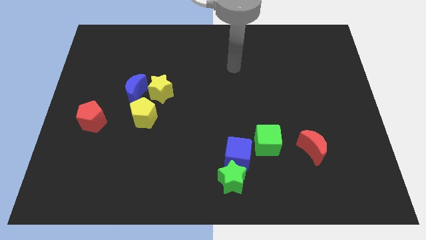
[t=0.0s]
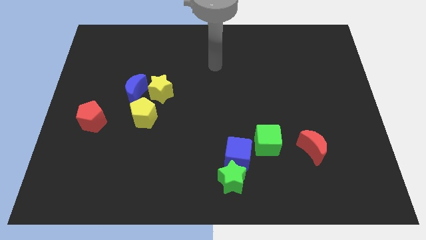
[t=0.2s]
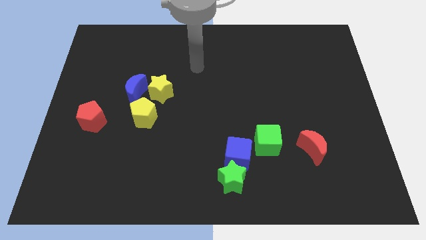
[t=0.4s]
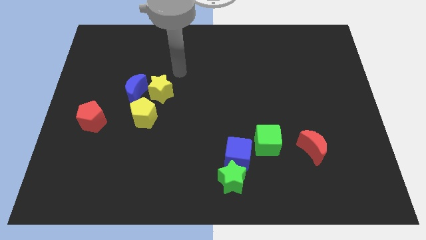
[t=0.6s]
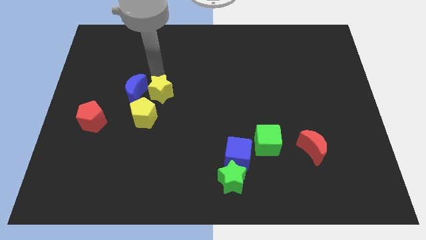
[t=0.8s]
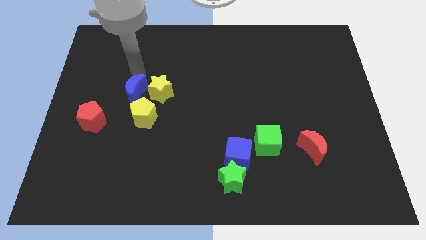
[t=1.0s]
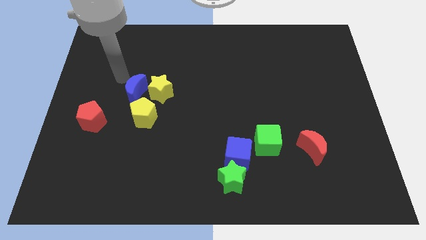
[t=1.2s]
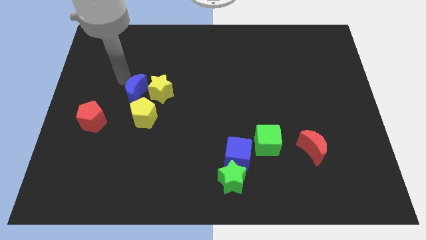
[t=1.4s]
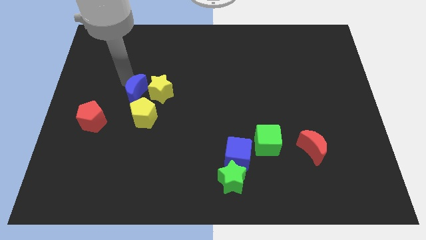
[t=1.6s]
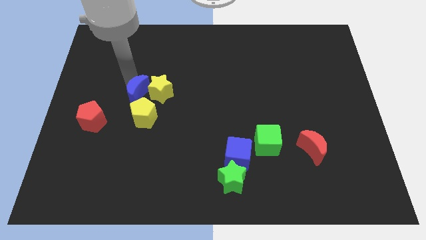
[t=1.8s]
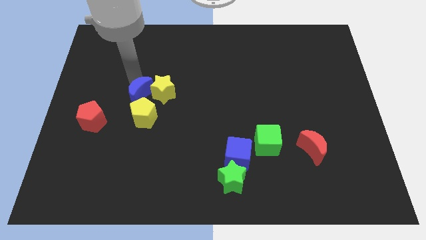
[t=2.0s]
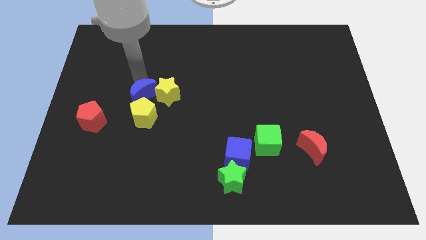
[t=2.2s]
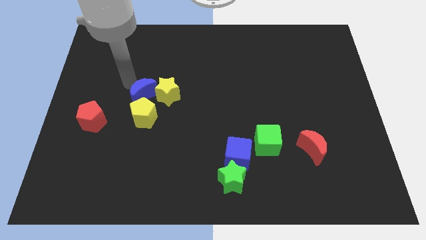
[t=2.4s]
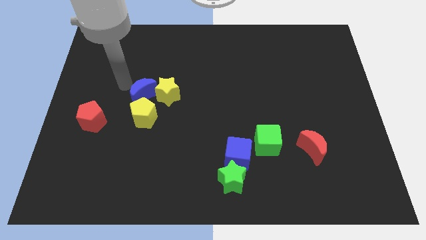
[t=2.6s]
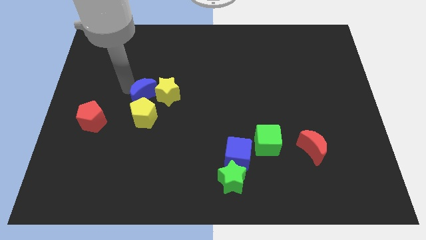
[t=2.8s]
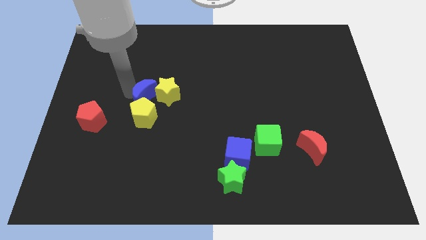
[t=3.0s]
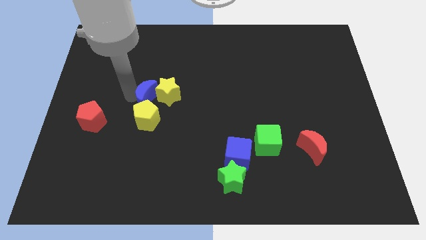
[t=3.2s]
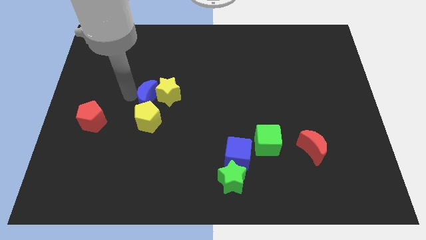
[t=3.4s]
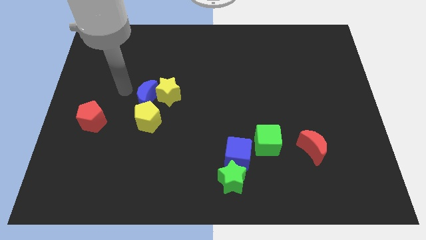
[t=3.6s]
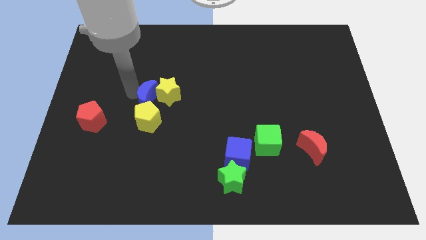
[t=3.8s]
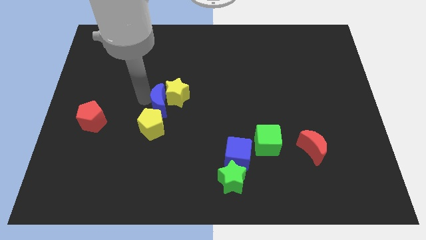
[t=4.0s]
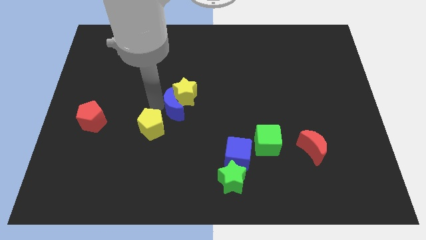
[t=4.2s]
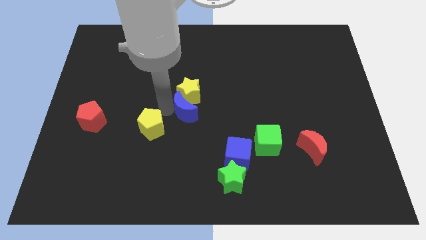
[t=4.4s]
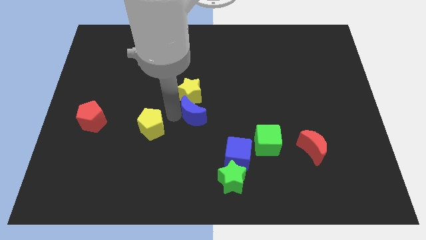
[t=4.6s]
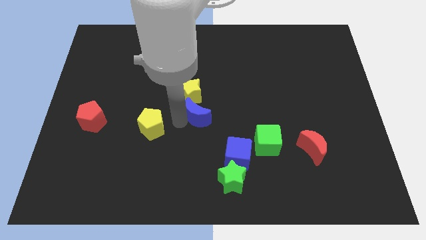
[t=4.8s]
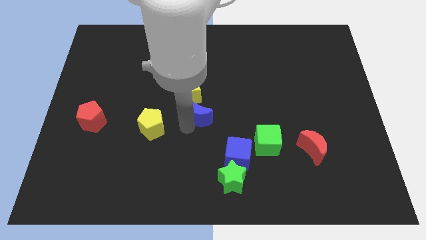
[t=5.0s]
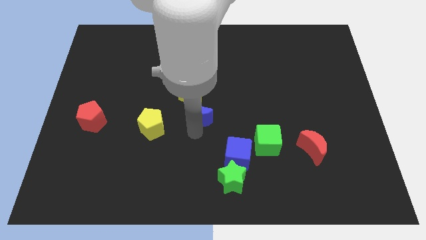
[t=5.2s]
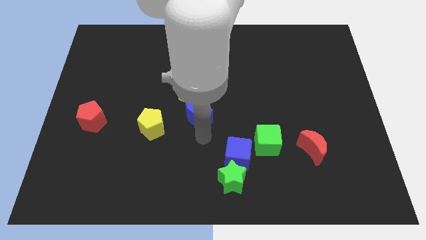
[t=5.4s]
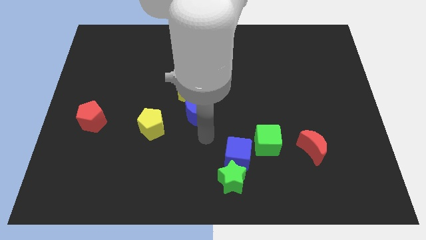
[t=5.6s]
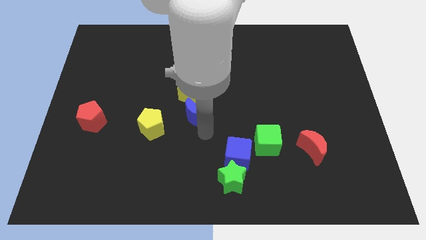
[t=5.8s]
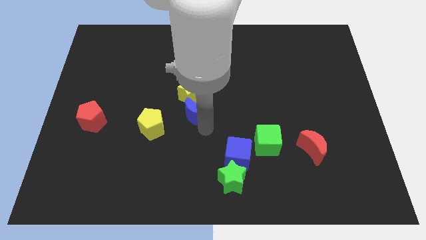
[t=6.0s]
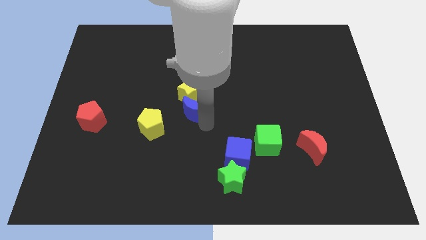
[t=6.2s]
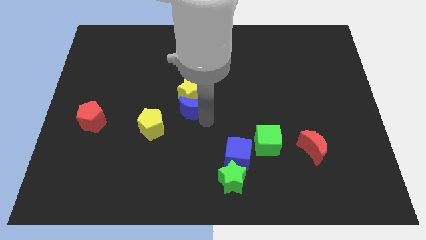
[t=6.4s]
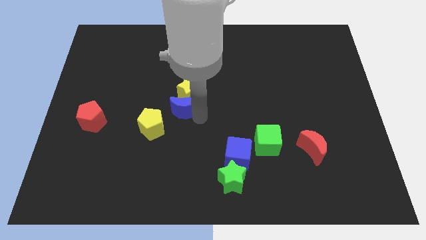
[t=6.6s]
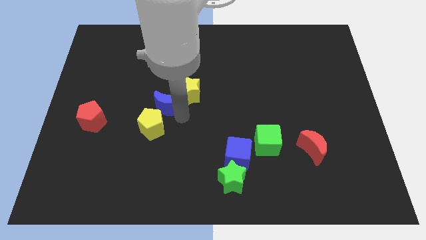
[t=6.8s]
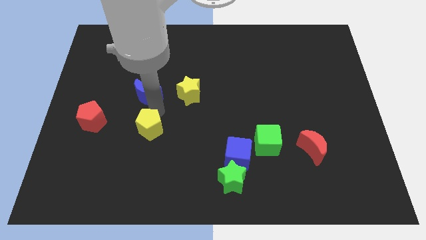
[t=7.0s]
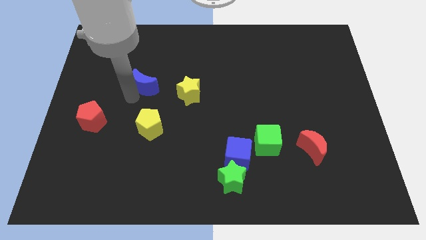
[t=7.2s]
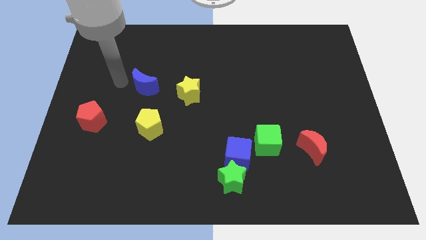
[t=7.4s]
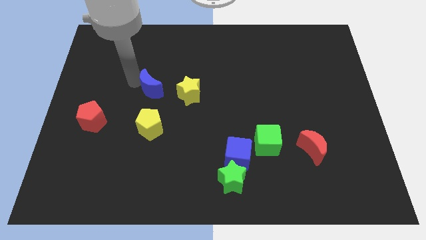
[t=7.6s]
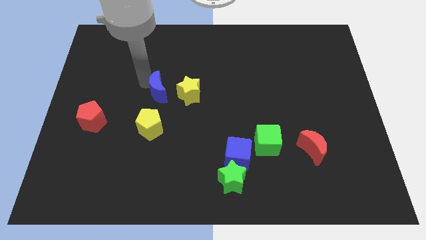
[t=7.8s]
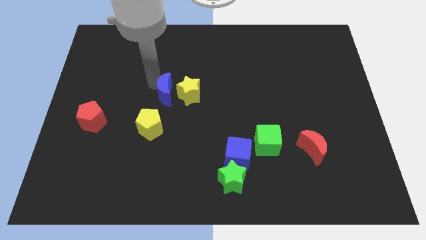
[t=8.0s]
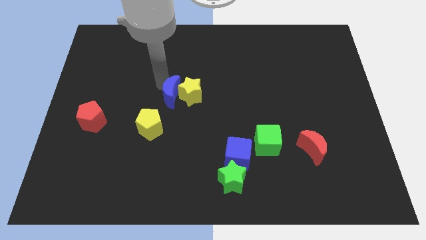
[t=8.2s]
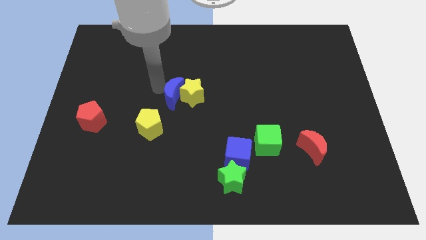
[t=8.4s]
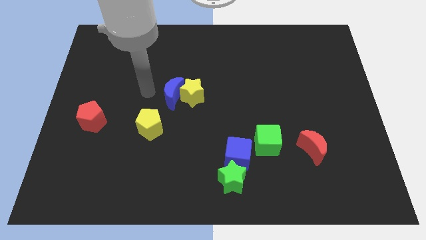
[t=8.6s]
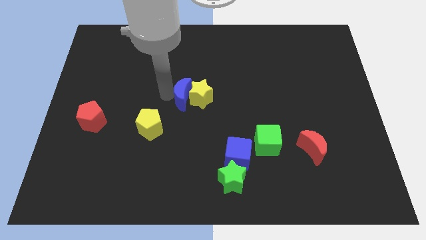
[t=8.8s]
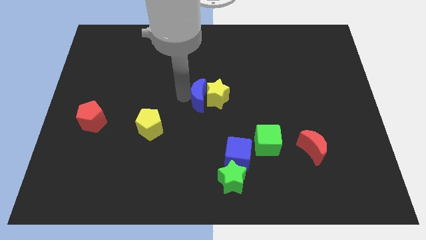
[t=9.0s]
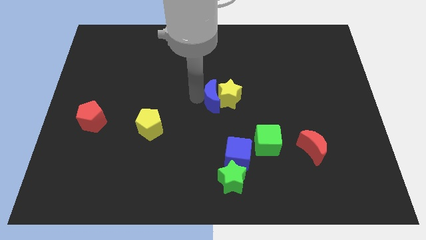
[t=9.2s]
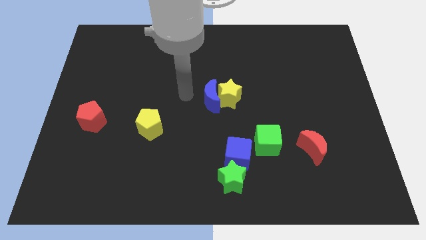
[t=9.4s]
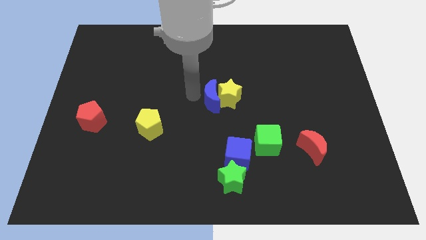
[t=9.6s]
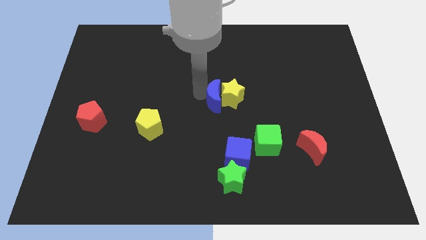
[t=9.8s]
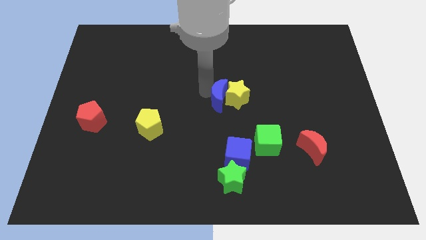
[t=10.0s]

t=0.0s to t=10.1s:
move the blue moon to the right

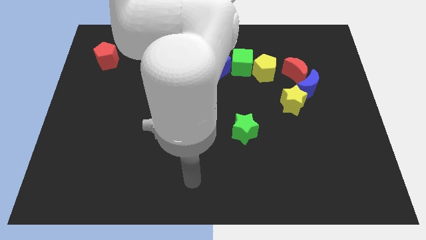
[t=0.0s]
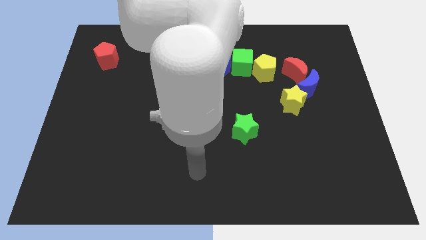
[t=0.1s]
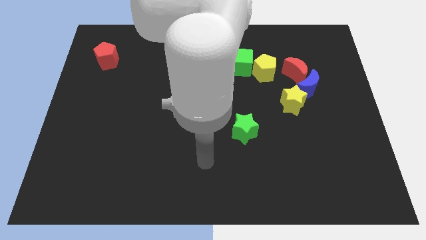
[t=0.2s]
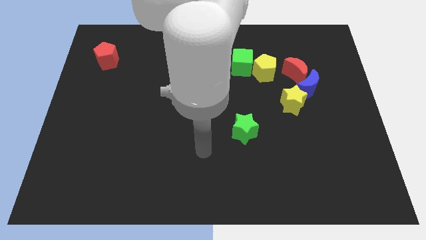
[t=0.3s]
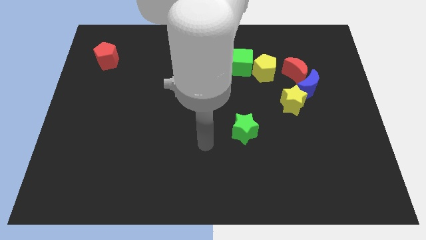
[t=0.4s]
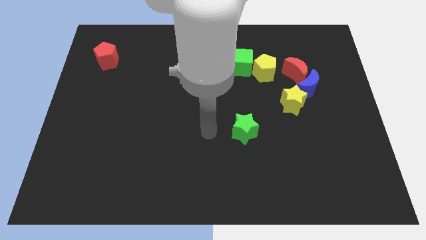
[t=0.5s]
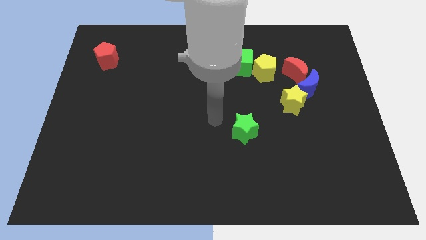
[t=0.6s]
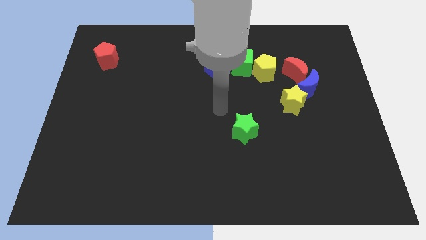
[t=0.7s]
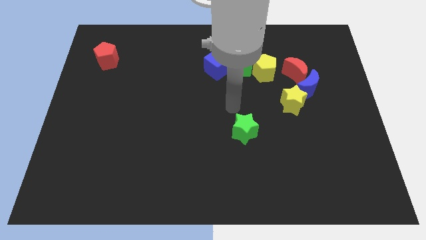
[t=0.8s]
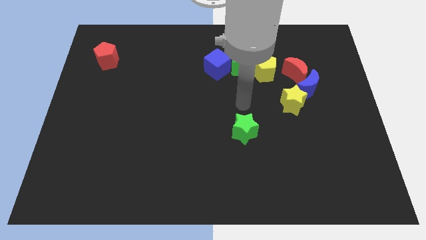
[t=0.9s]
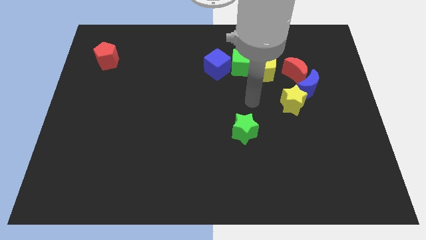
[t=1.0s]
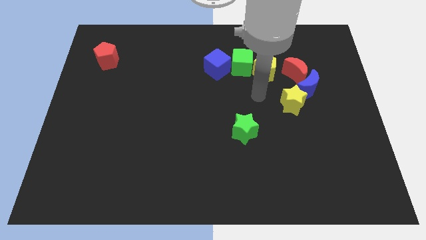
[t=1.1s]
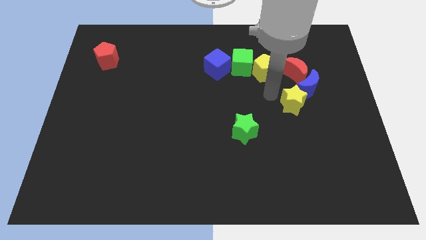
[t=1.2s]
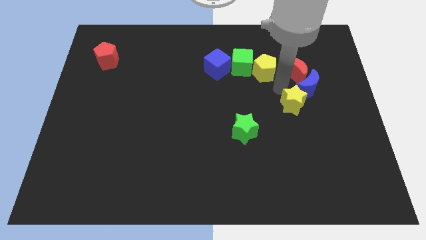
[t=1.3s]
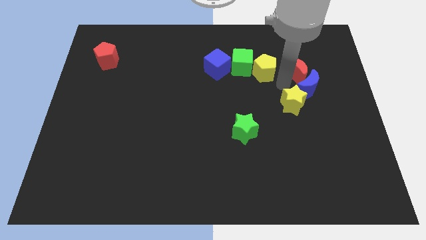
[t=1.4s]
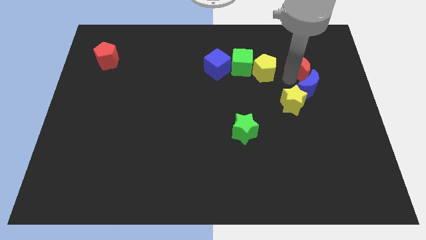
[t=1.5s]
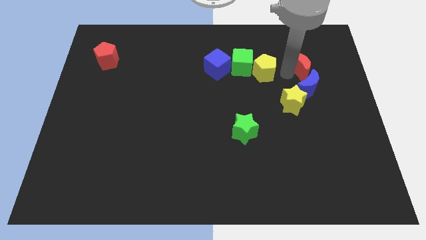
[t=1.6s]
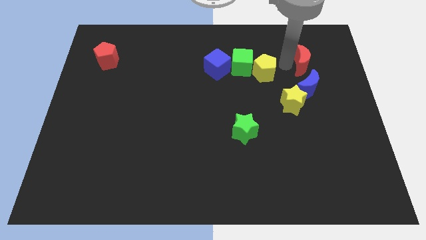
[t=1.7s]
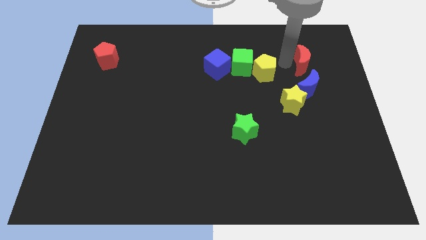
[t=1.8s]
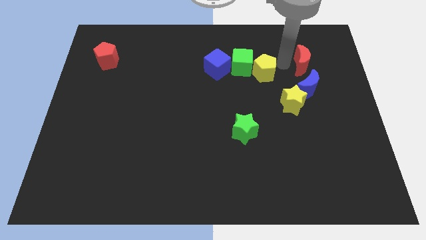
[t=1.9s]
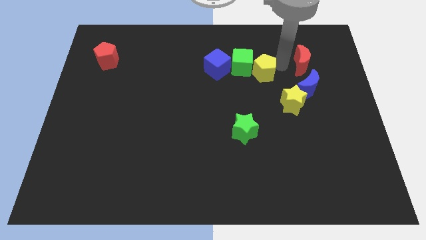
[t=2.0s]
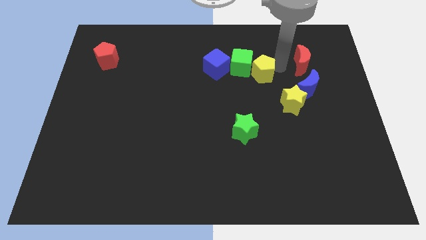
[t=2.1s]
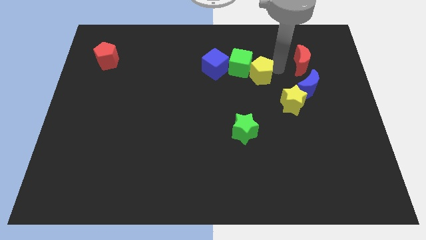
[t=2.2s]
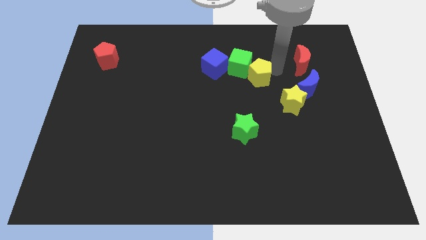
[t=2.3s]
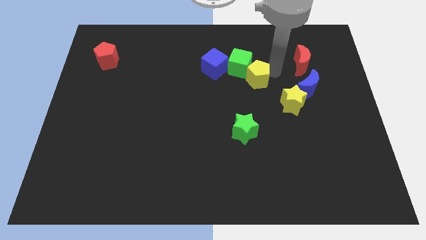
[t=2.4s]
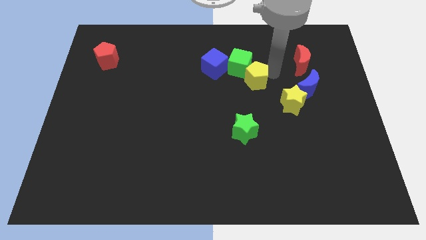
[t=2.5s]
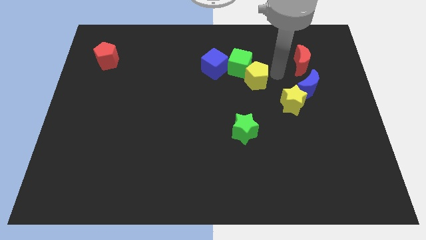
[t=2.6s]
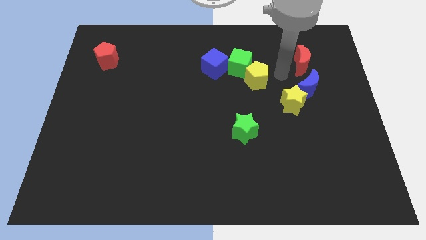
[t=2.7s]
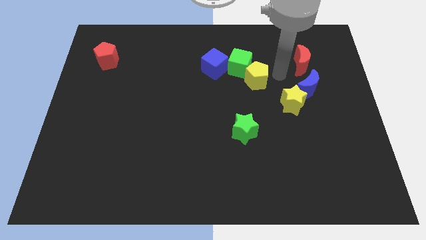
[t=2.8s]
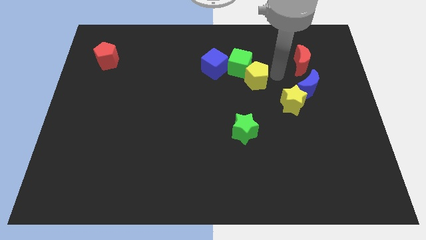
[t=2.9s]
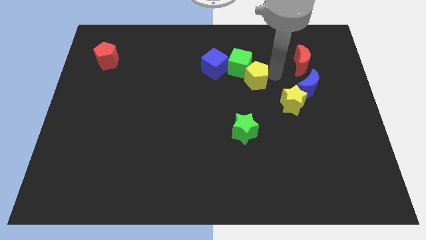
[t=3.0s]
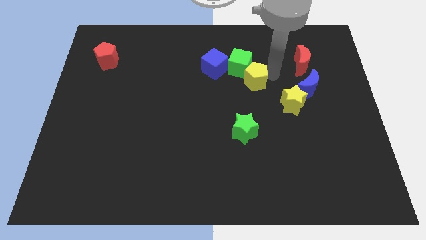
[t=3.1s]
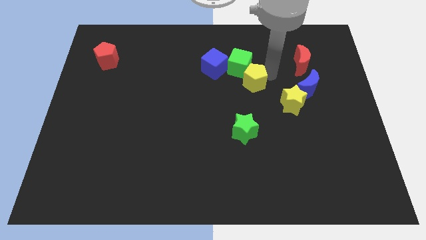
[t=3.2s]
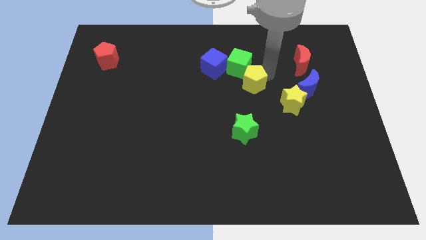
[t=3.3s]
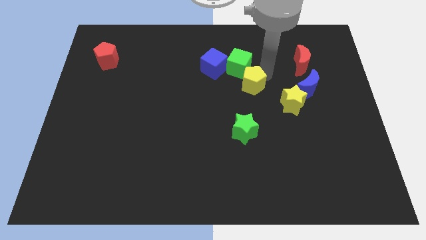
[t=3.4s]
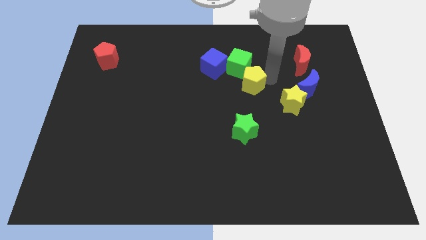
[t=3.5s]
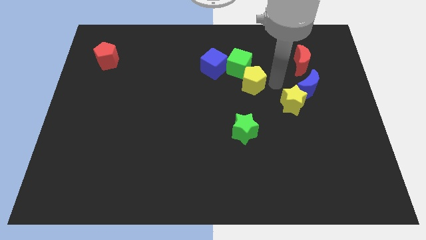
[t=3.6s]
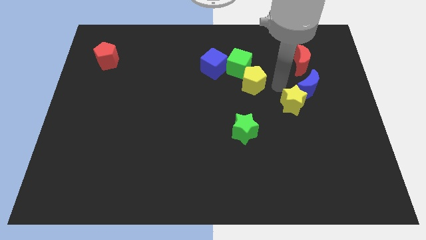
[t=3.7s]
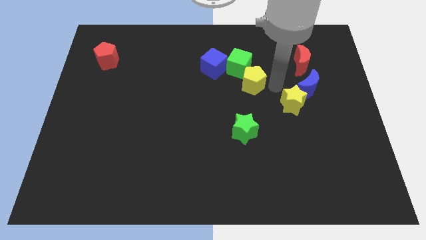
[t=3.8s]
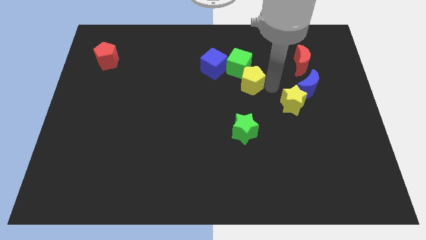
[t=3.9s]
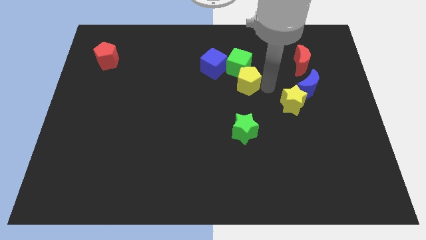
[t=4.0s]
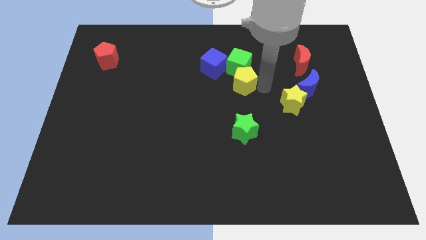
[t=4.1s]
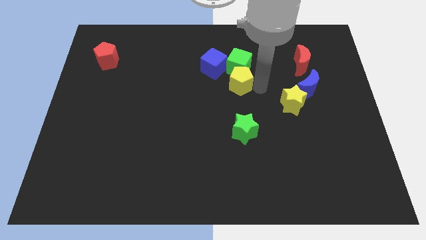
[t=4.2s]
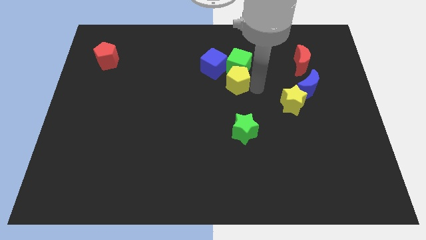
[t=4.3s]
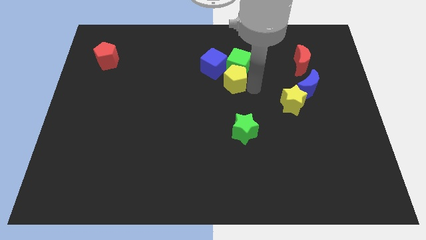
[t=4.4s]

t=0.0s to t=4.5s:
slightly move the yellow pentagon to the left
